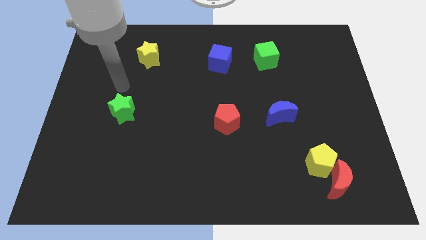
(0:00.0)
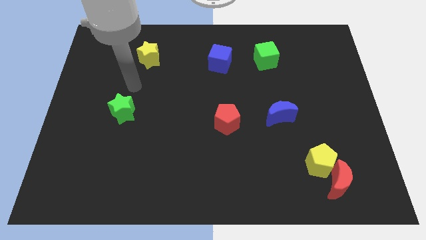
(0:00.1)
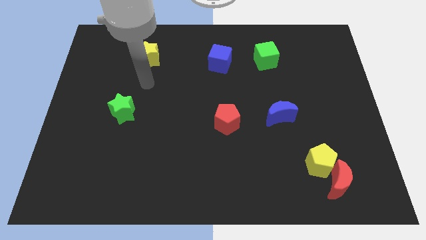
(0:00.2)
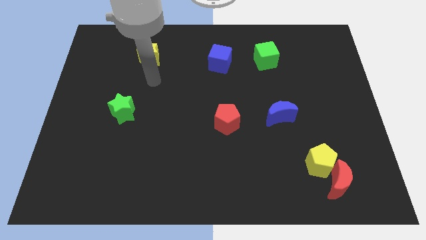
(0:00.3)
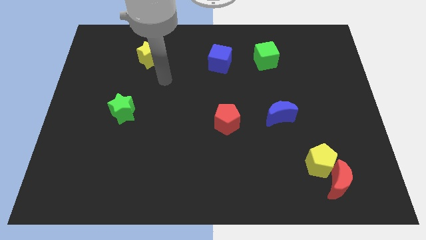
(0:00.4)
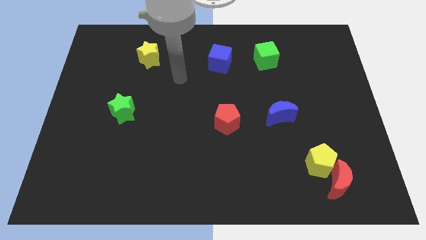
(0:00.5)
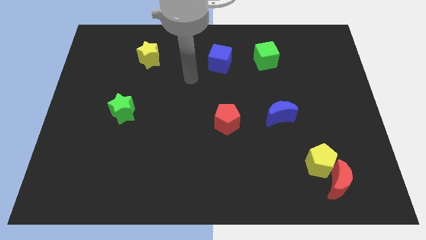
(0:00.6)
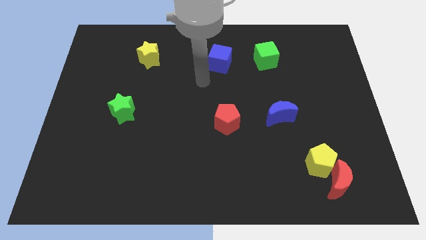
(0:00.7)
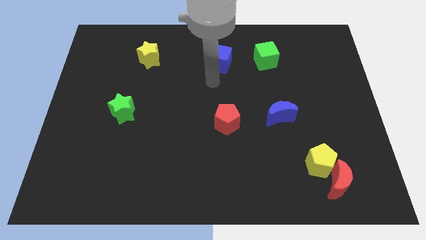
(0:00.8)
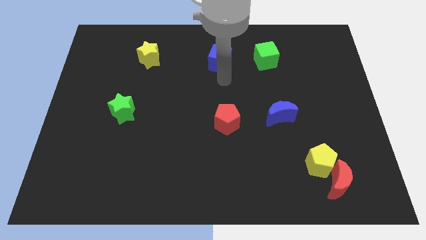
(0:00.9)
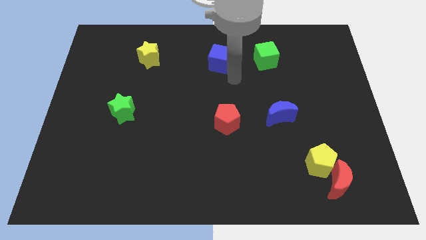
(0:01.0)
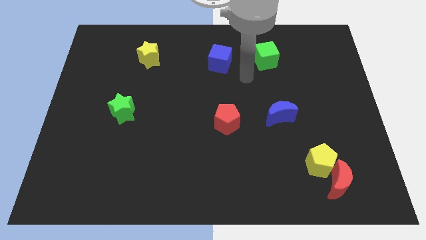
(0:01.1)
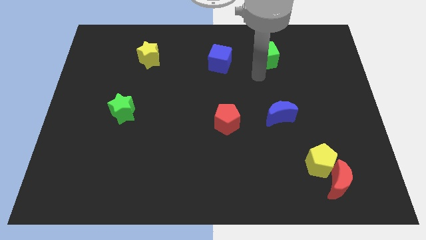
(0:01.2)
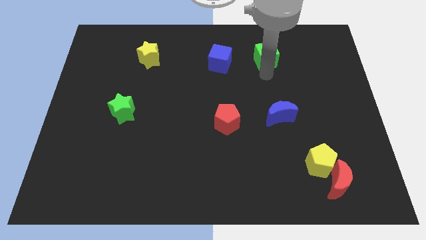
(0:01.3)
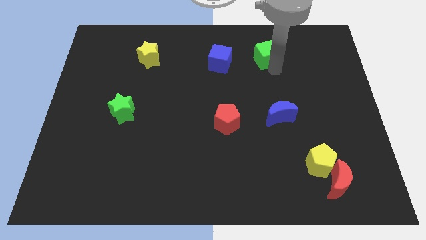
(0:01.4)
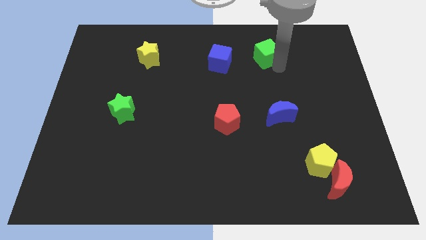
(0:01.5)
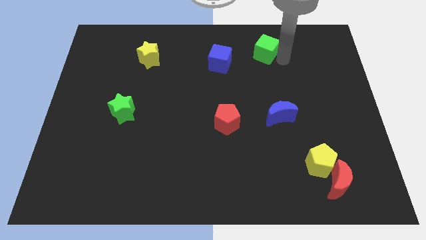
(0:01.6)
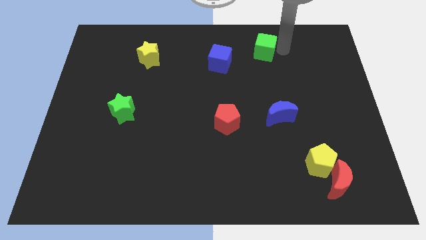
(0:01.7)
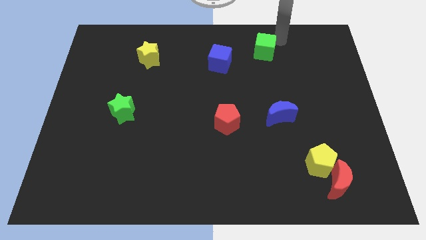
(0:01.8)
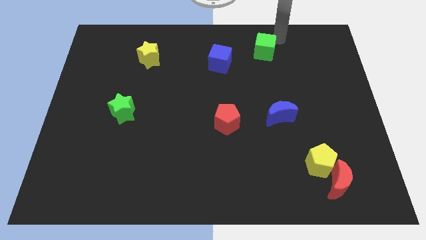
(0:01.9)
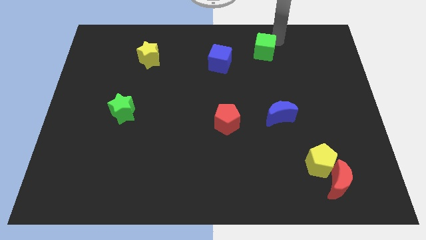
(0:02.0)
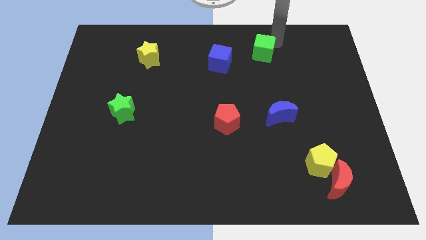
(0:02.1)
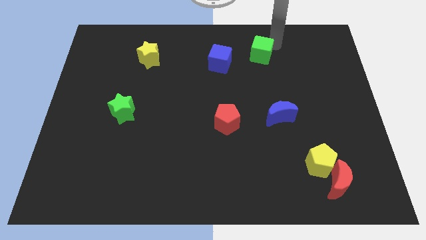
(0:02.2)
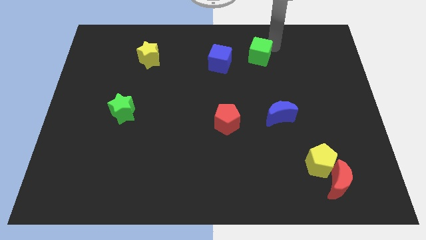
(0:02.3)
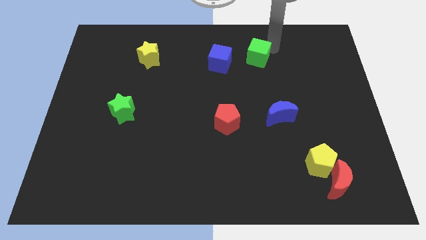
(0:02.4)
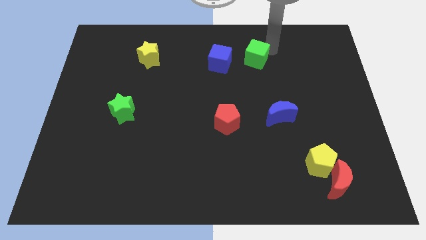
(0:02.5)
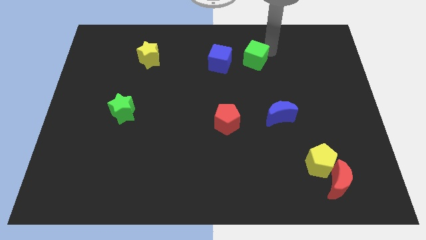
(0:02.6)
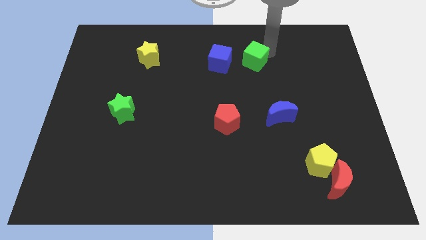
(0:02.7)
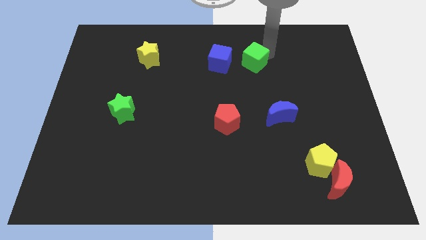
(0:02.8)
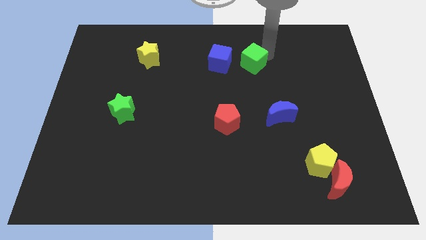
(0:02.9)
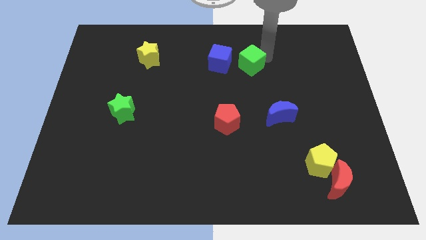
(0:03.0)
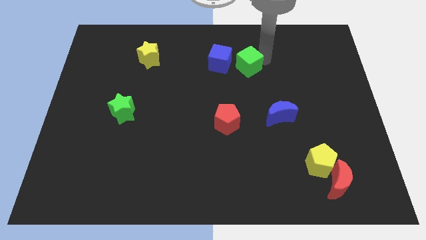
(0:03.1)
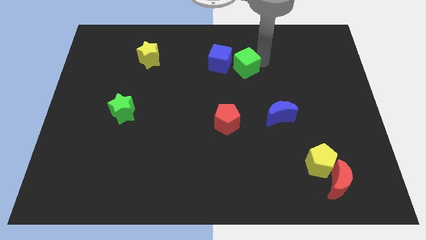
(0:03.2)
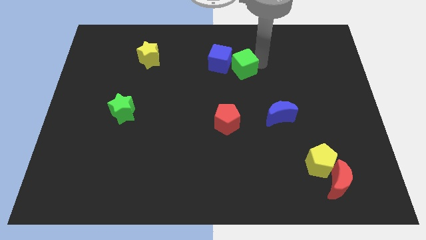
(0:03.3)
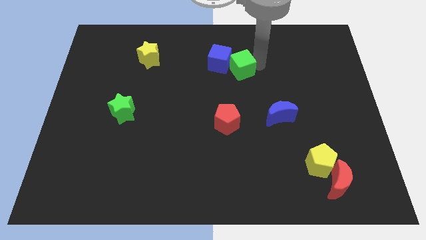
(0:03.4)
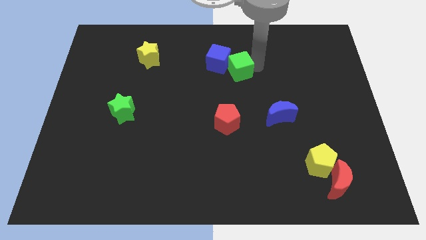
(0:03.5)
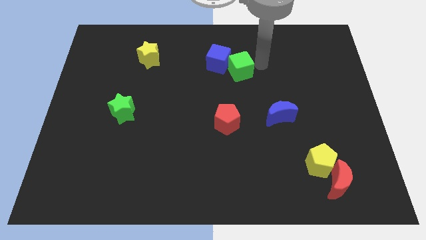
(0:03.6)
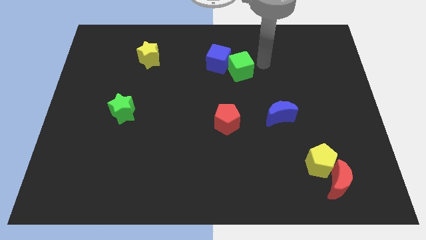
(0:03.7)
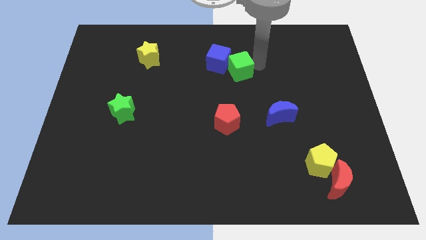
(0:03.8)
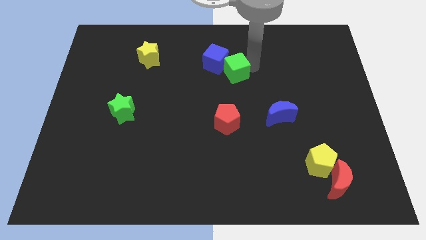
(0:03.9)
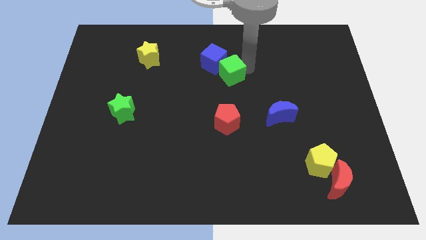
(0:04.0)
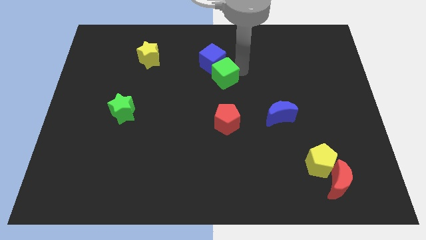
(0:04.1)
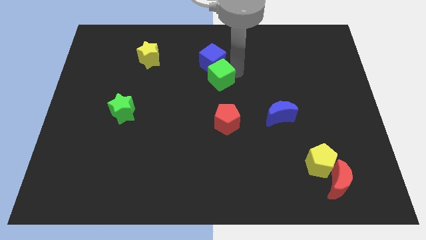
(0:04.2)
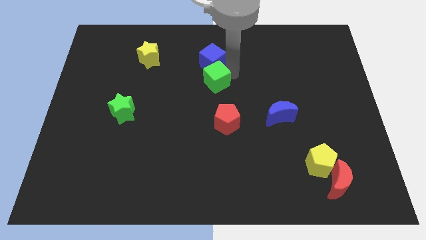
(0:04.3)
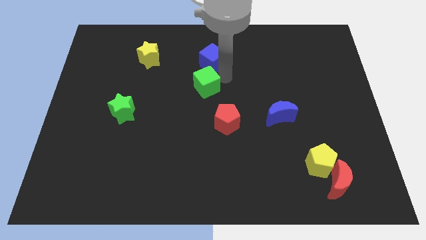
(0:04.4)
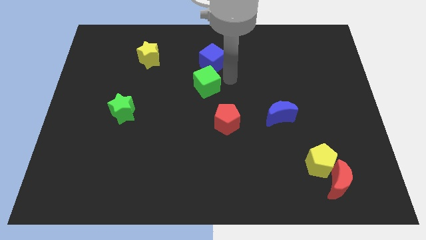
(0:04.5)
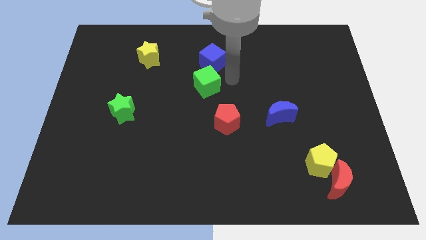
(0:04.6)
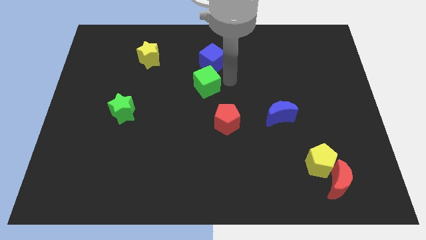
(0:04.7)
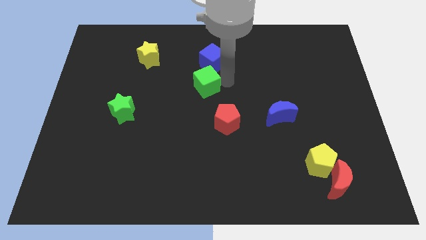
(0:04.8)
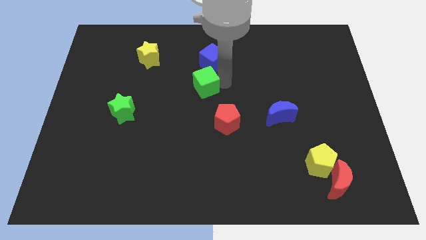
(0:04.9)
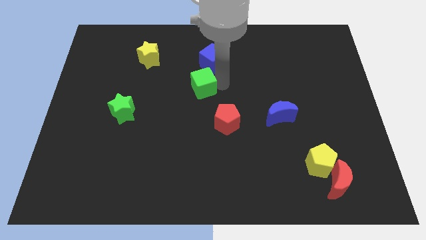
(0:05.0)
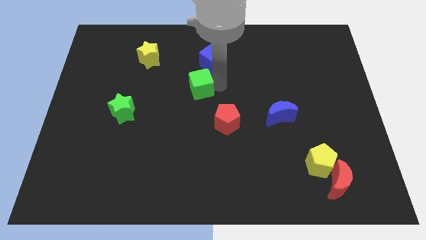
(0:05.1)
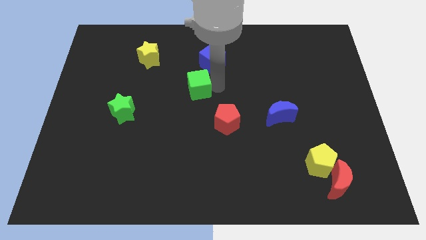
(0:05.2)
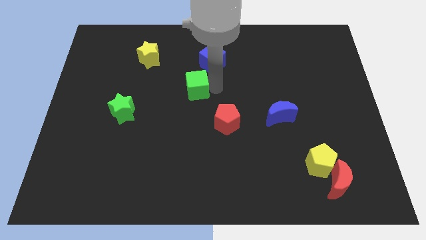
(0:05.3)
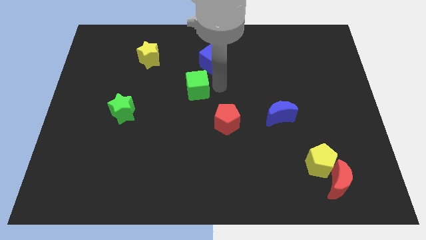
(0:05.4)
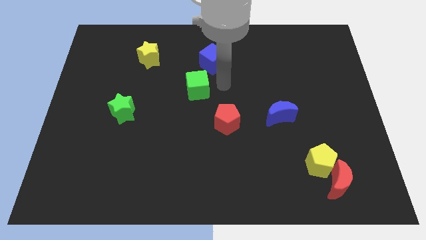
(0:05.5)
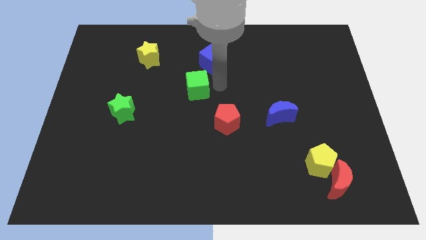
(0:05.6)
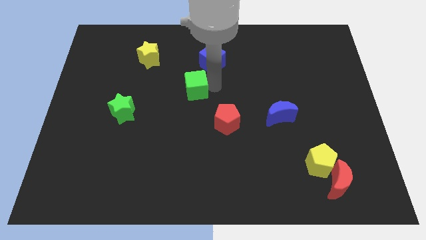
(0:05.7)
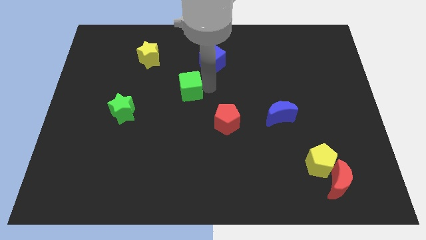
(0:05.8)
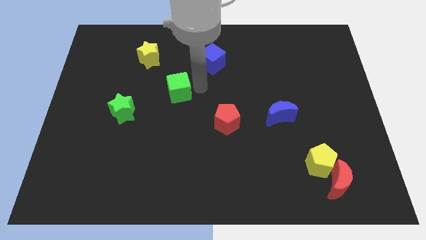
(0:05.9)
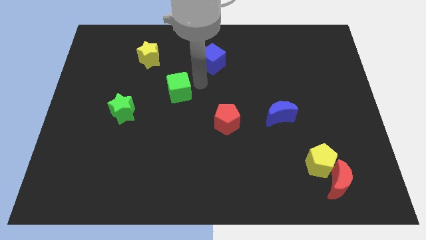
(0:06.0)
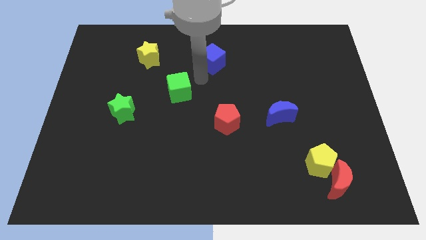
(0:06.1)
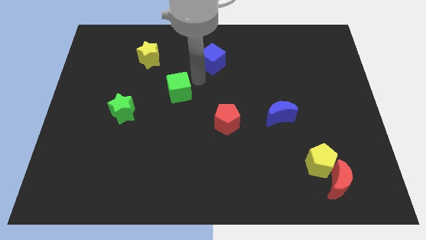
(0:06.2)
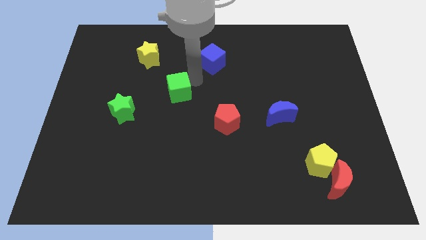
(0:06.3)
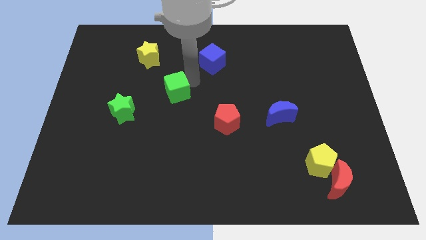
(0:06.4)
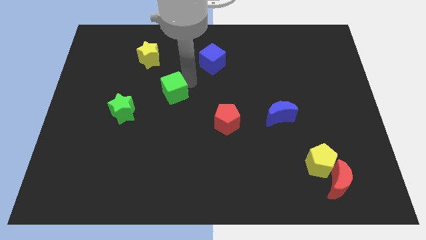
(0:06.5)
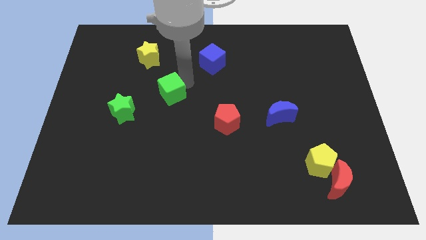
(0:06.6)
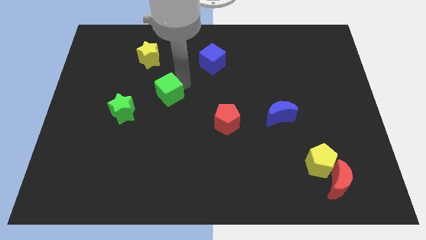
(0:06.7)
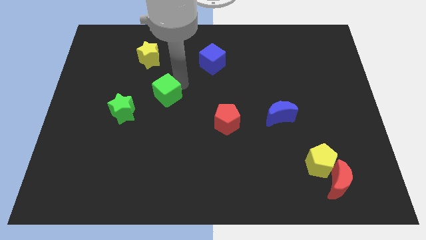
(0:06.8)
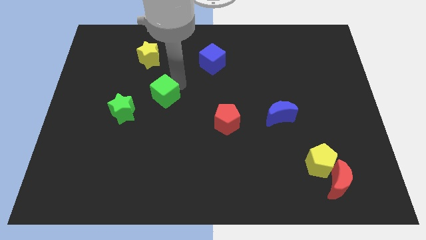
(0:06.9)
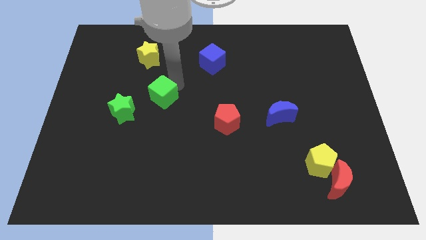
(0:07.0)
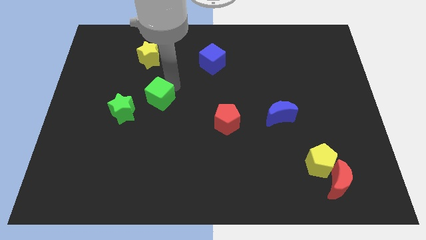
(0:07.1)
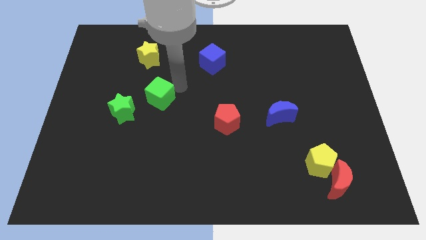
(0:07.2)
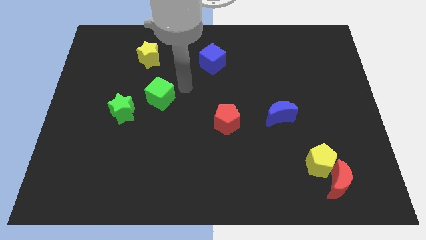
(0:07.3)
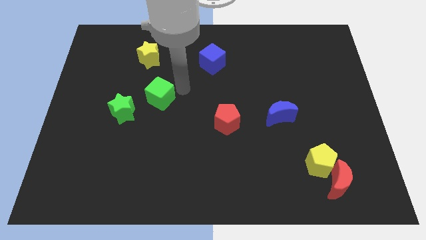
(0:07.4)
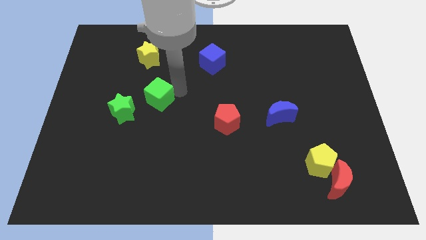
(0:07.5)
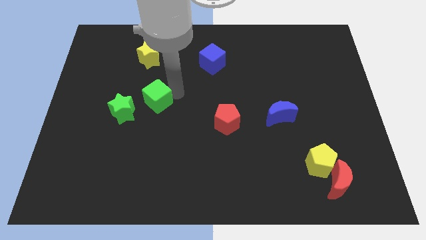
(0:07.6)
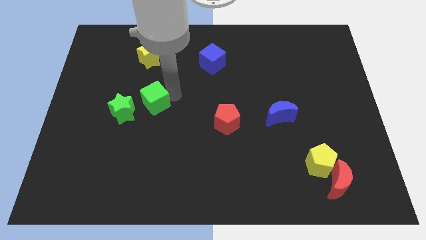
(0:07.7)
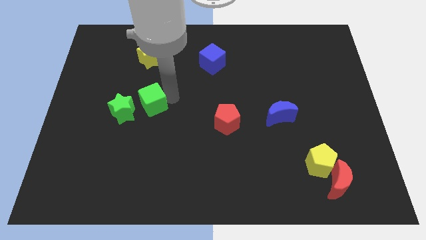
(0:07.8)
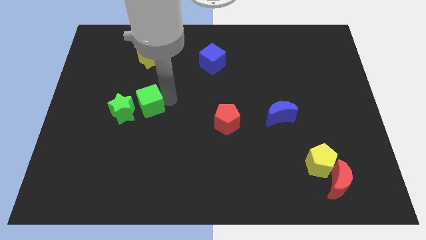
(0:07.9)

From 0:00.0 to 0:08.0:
move the green cube next to the green star
